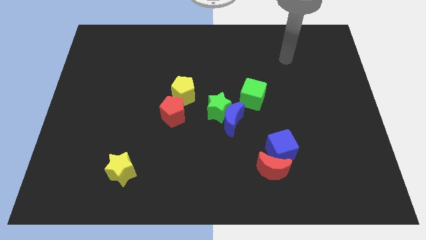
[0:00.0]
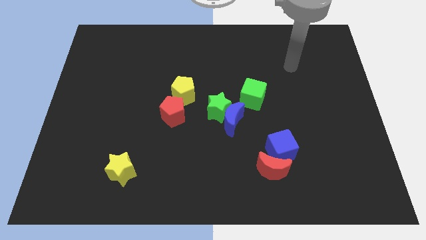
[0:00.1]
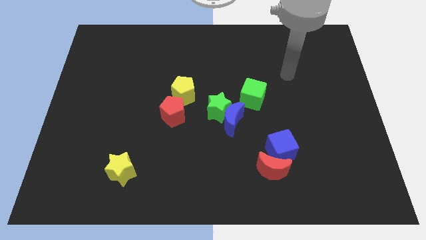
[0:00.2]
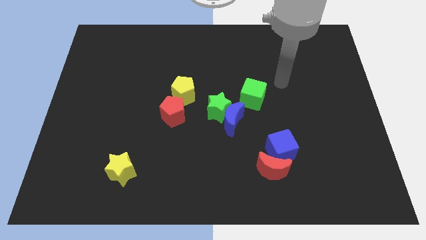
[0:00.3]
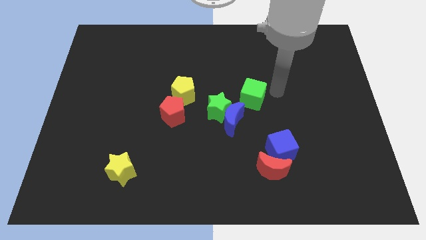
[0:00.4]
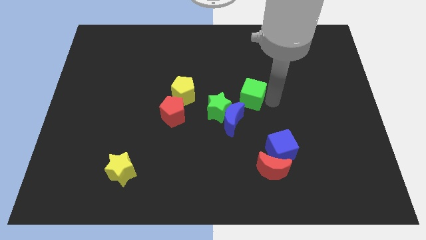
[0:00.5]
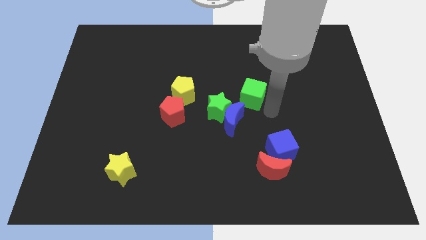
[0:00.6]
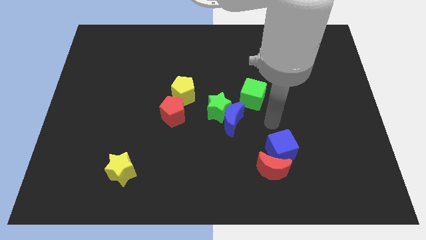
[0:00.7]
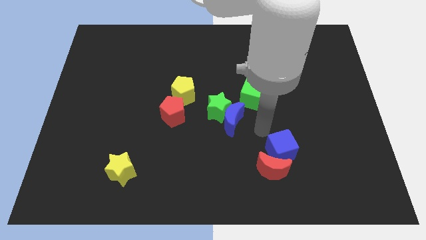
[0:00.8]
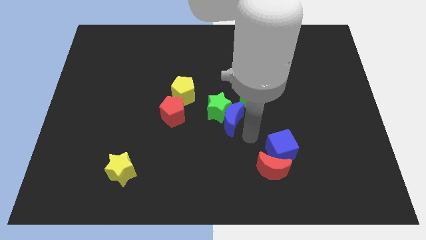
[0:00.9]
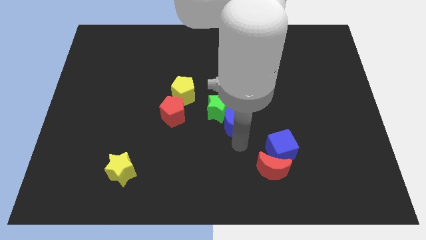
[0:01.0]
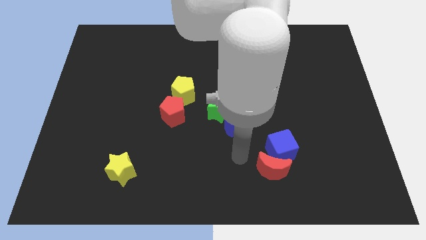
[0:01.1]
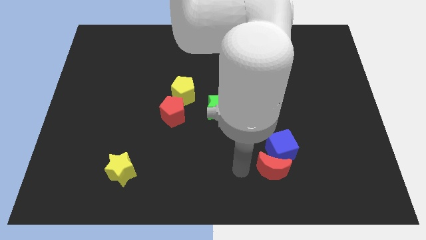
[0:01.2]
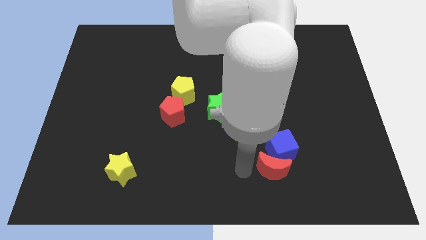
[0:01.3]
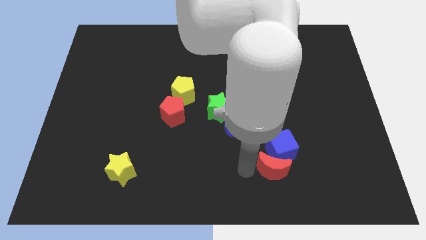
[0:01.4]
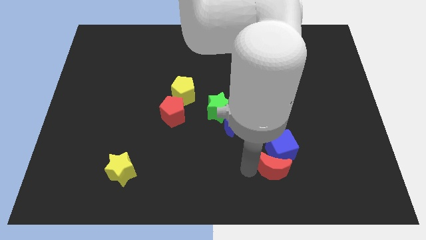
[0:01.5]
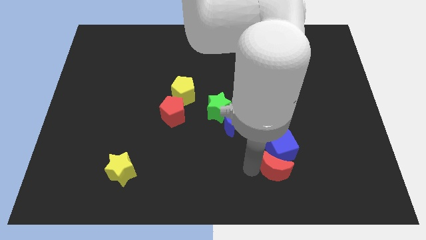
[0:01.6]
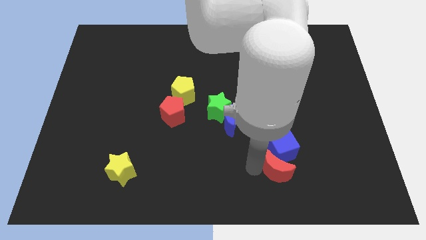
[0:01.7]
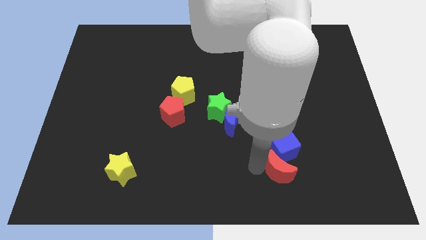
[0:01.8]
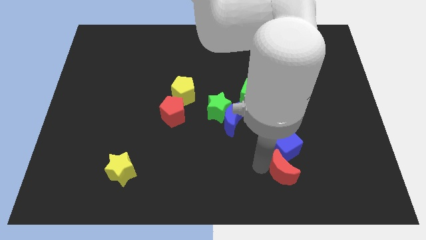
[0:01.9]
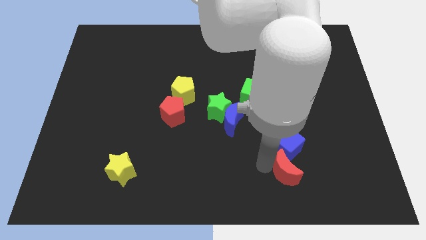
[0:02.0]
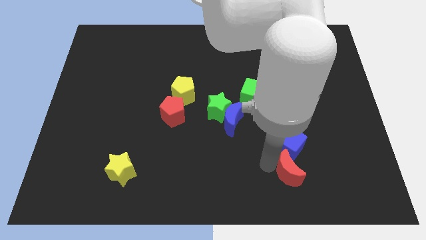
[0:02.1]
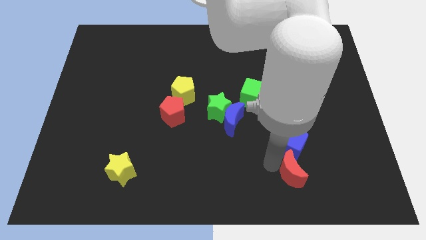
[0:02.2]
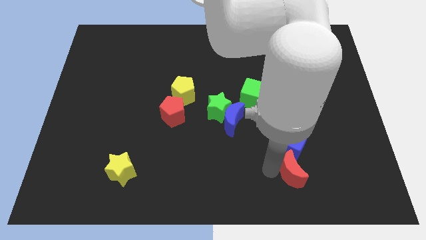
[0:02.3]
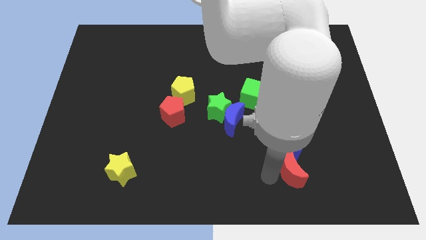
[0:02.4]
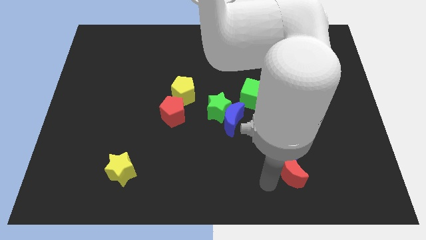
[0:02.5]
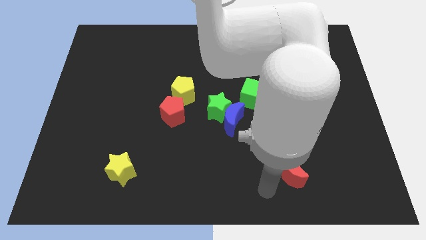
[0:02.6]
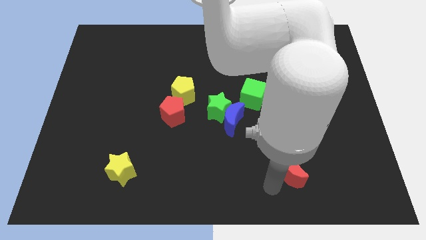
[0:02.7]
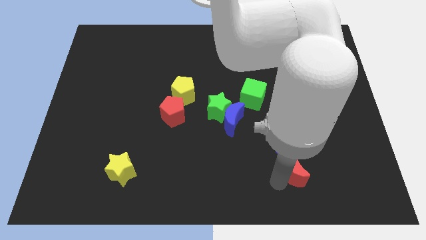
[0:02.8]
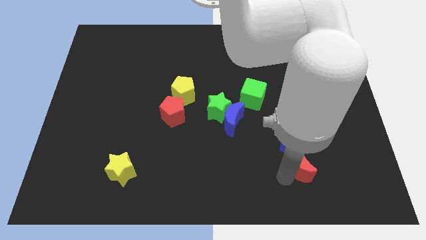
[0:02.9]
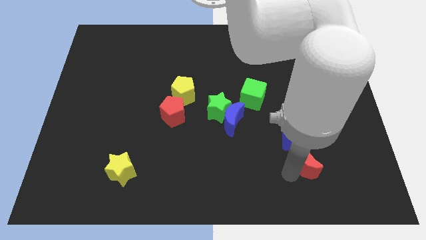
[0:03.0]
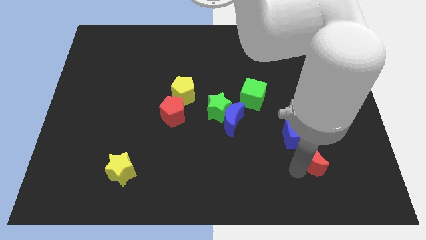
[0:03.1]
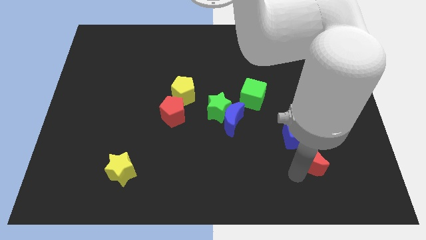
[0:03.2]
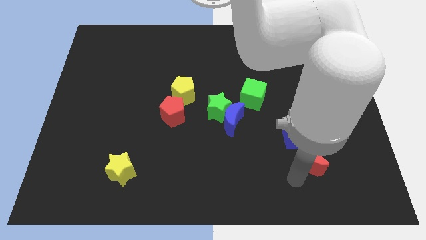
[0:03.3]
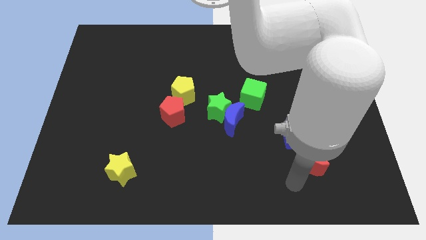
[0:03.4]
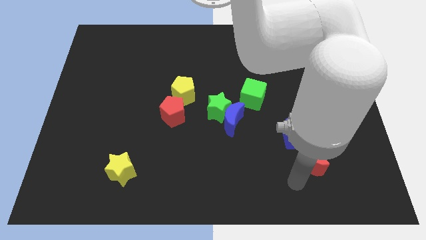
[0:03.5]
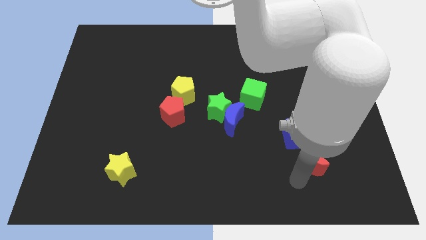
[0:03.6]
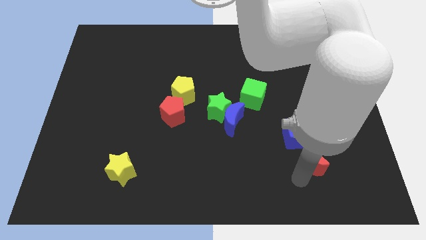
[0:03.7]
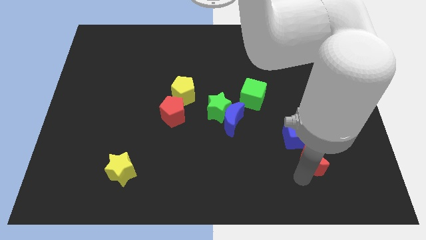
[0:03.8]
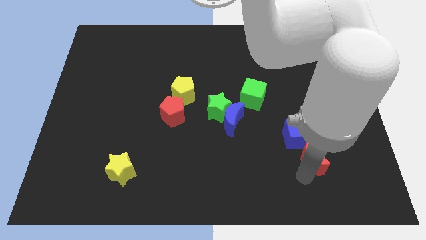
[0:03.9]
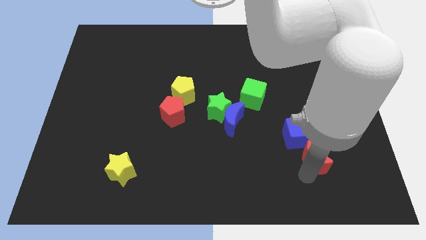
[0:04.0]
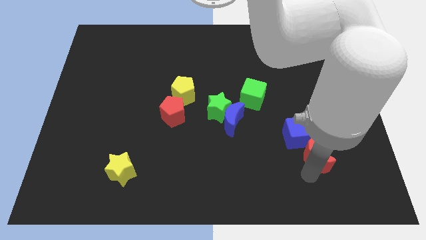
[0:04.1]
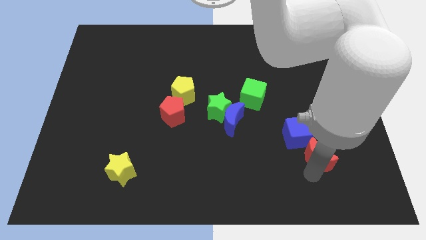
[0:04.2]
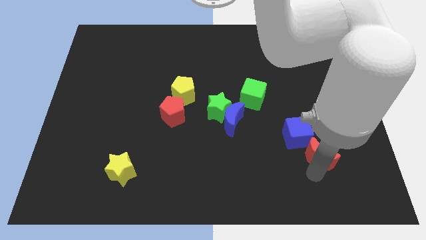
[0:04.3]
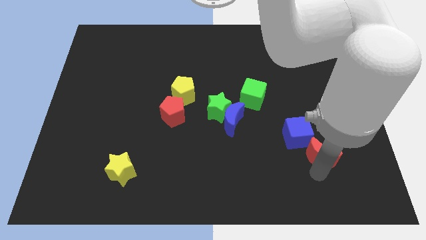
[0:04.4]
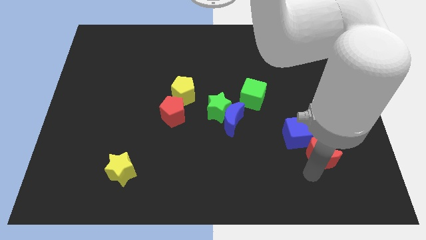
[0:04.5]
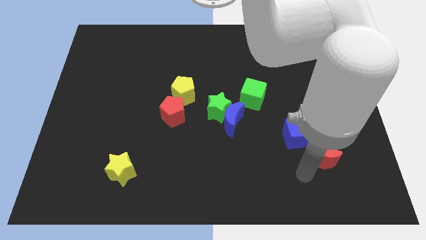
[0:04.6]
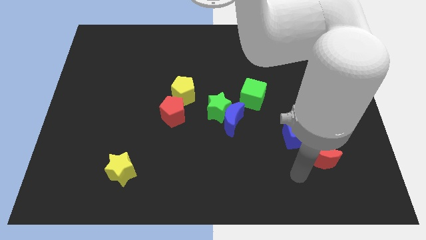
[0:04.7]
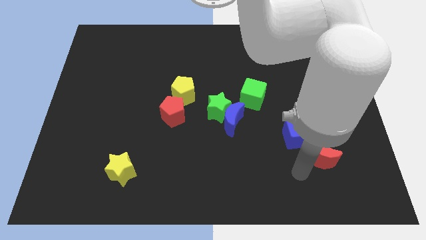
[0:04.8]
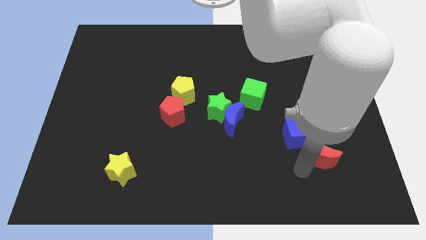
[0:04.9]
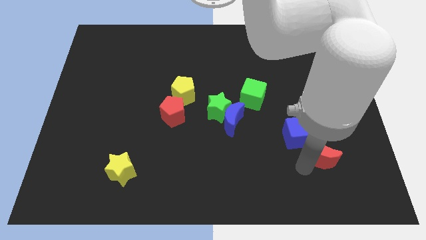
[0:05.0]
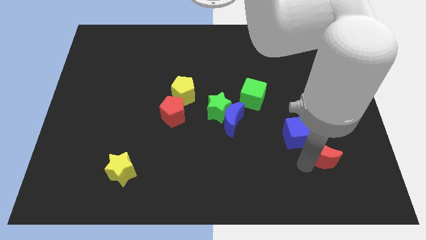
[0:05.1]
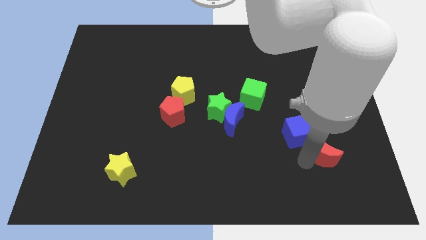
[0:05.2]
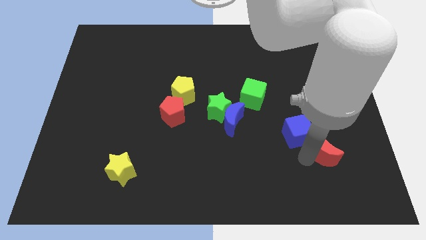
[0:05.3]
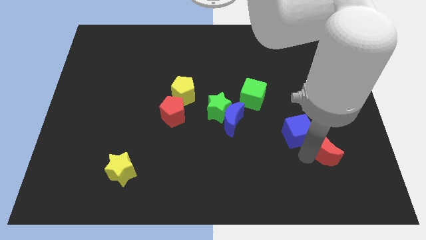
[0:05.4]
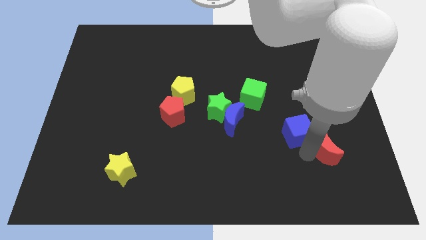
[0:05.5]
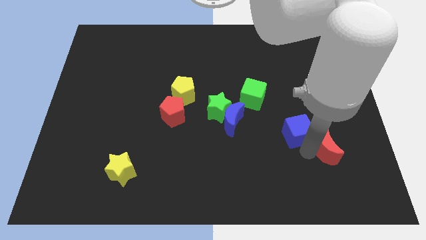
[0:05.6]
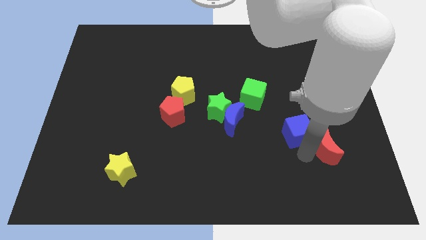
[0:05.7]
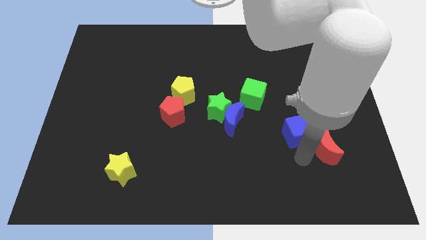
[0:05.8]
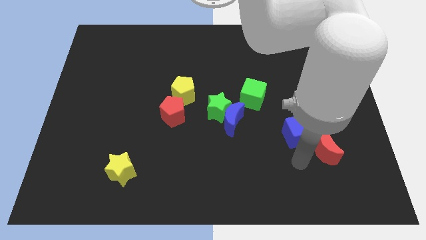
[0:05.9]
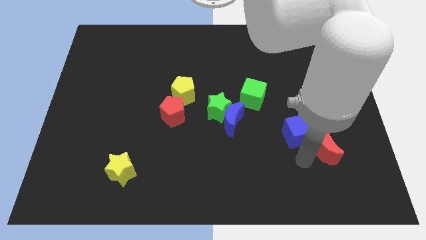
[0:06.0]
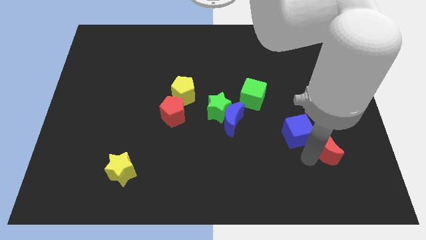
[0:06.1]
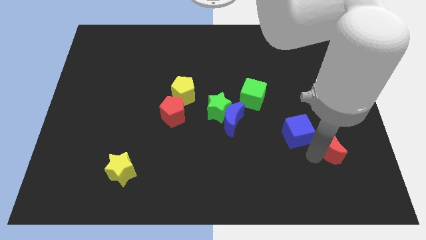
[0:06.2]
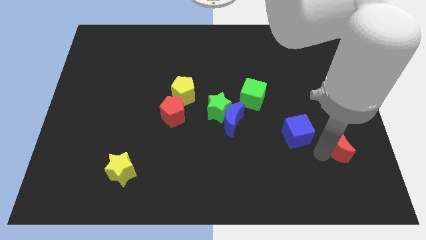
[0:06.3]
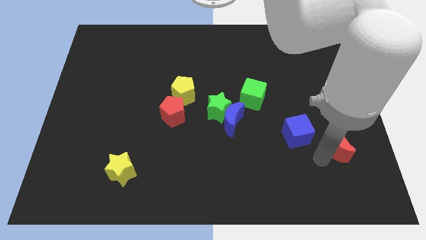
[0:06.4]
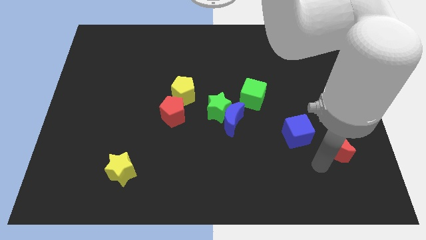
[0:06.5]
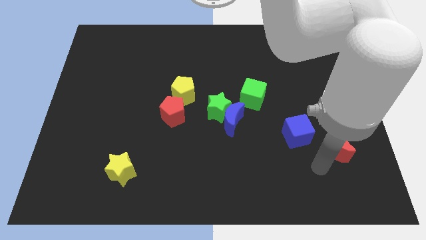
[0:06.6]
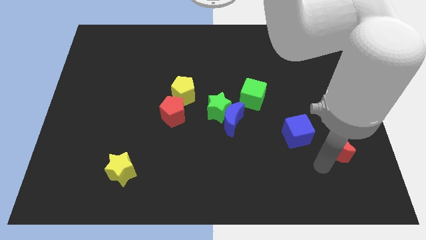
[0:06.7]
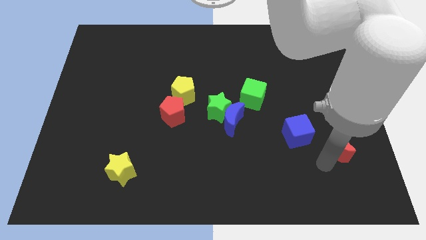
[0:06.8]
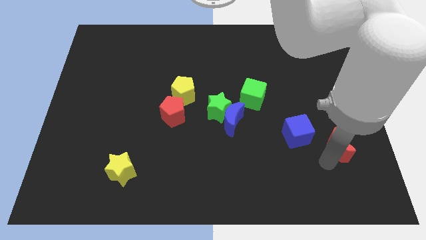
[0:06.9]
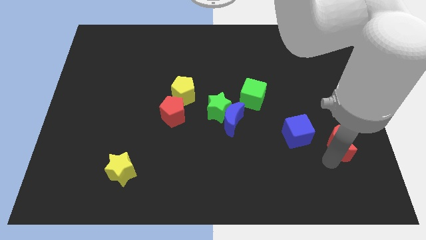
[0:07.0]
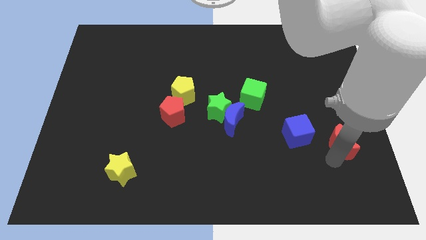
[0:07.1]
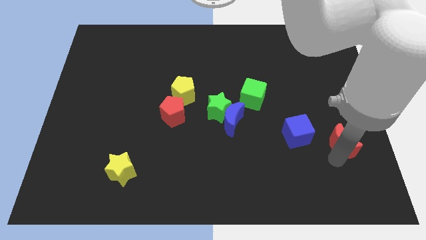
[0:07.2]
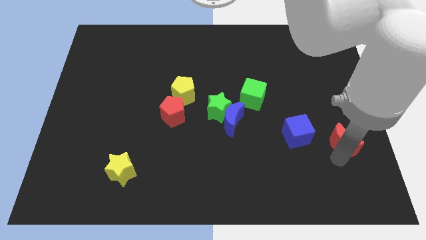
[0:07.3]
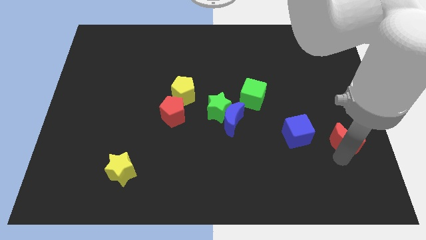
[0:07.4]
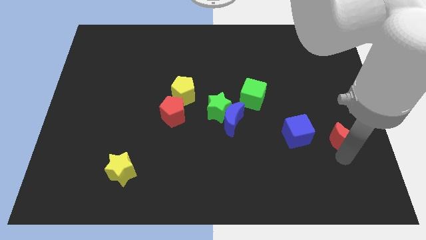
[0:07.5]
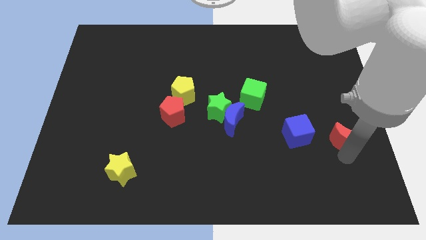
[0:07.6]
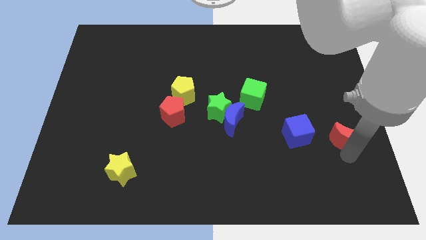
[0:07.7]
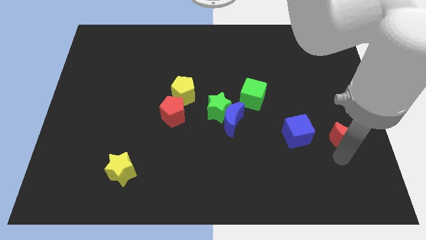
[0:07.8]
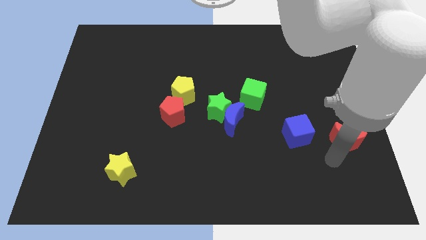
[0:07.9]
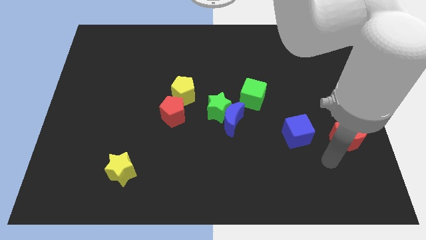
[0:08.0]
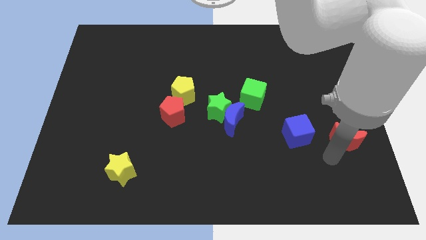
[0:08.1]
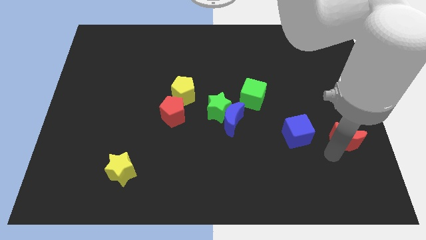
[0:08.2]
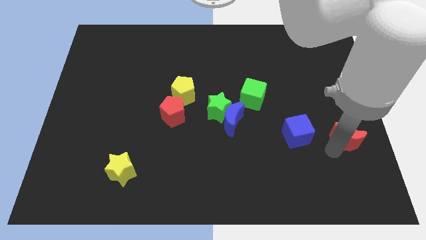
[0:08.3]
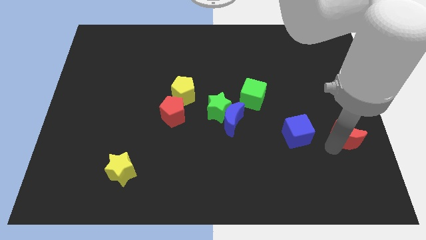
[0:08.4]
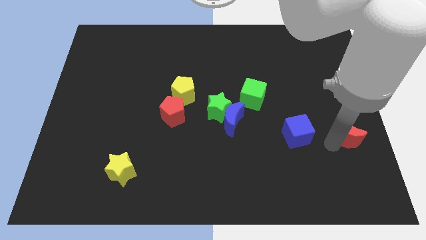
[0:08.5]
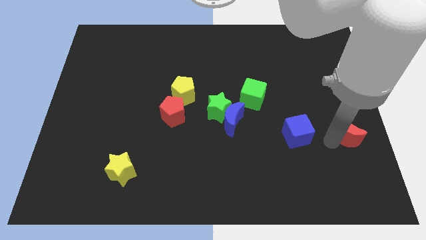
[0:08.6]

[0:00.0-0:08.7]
push the red moon to the right side of the board
